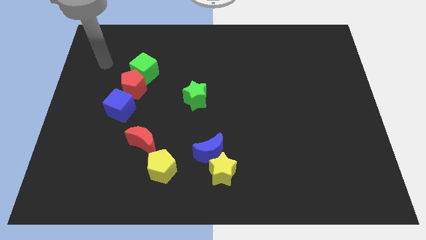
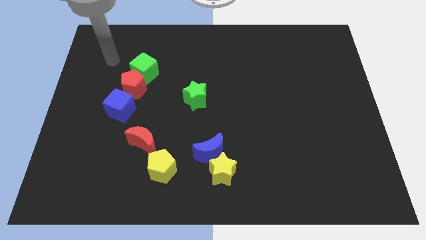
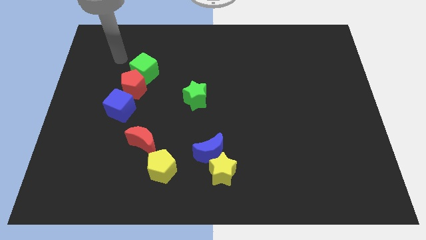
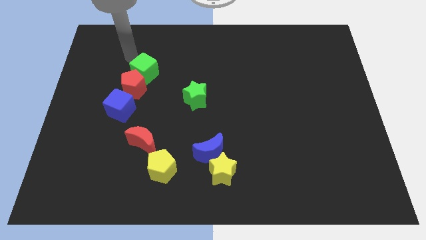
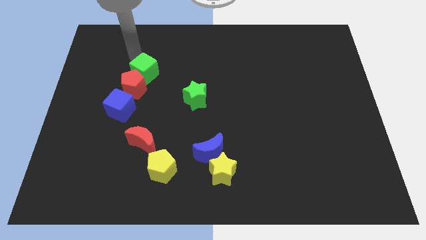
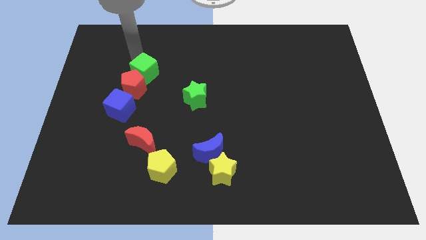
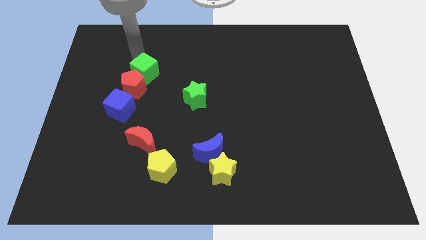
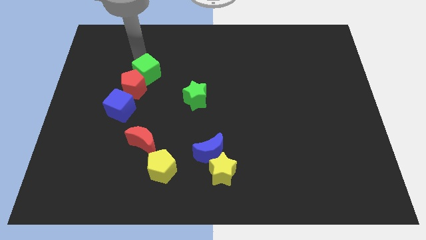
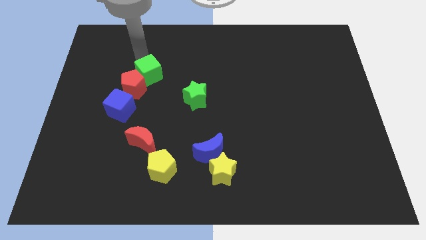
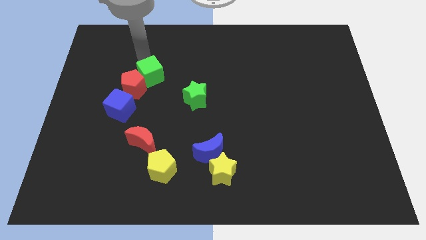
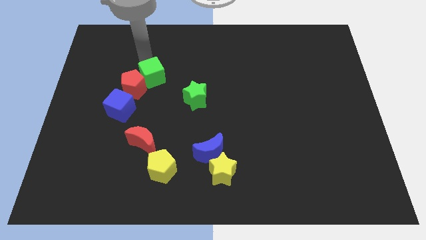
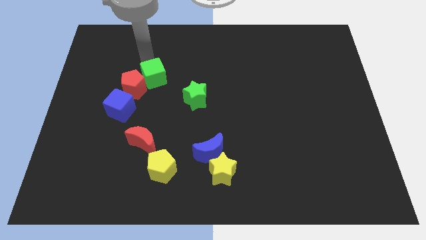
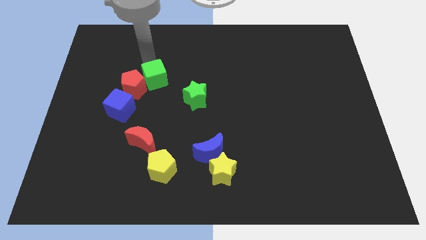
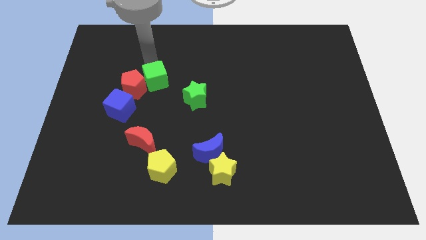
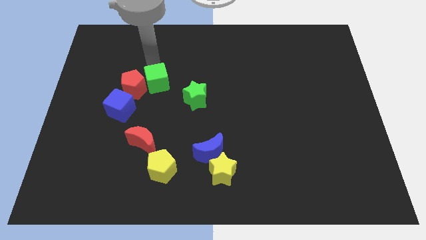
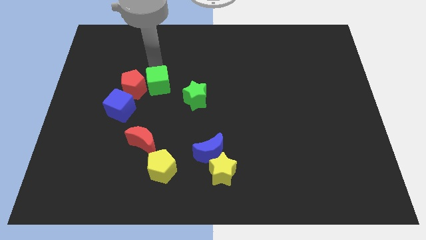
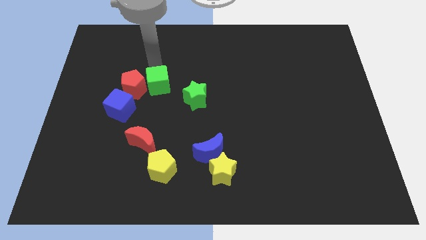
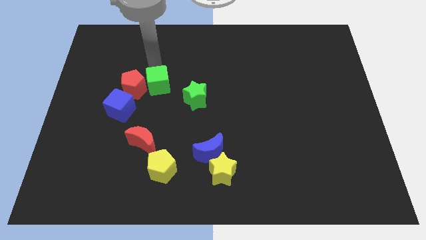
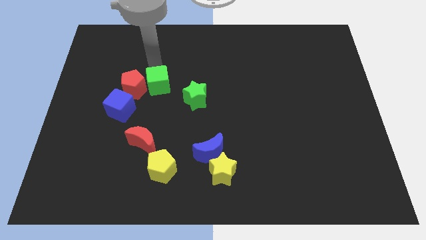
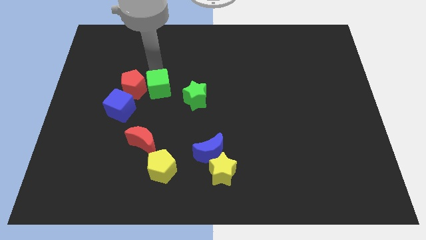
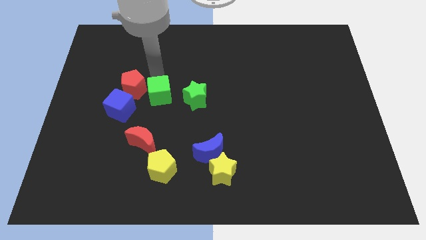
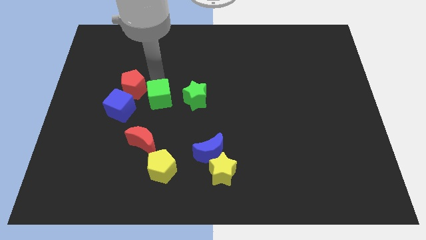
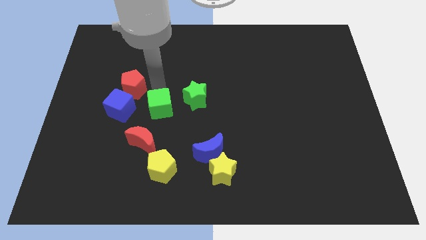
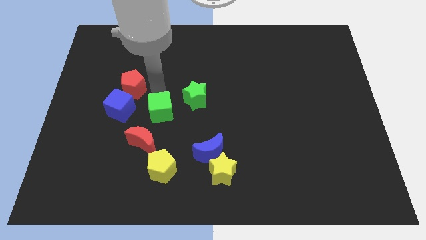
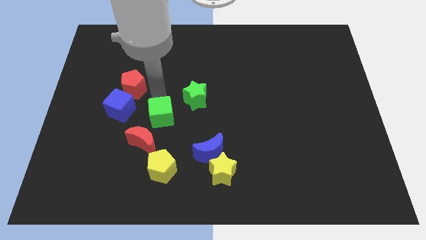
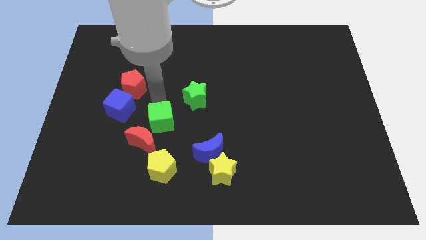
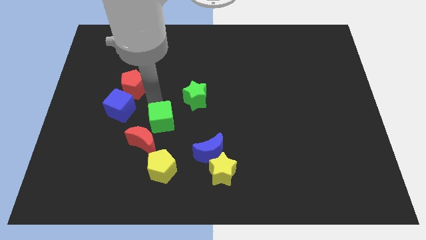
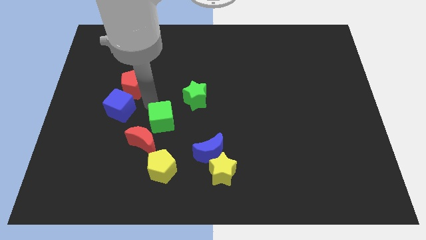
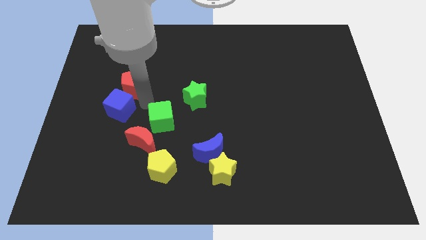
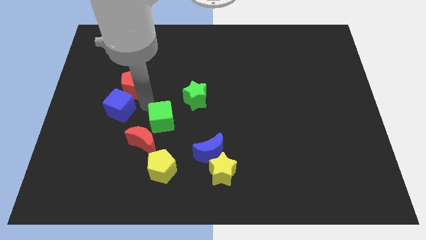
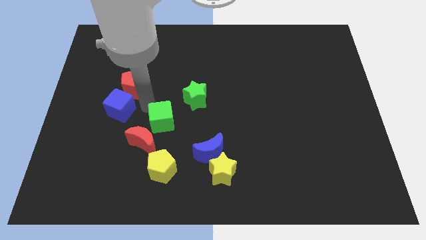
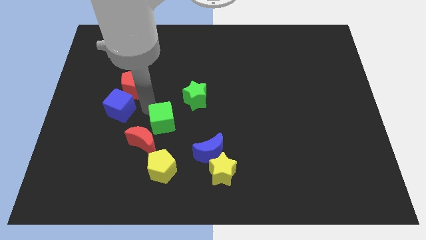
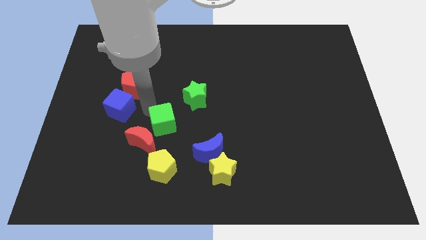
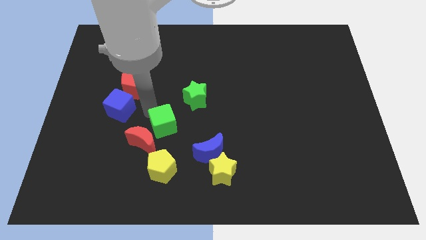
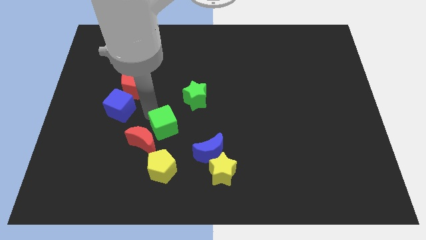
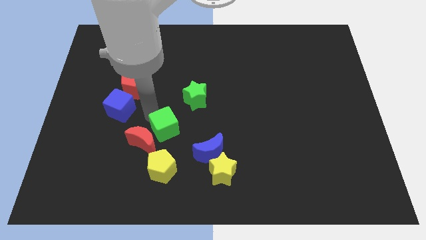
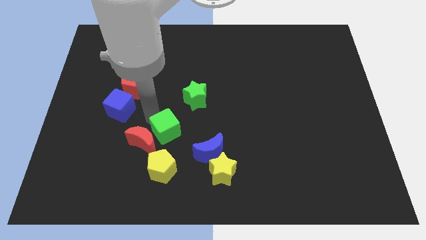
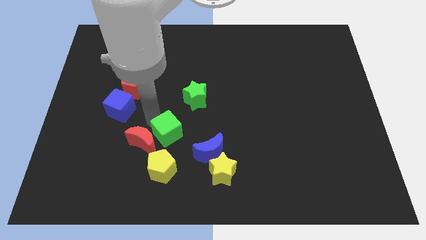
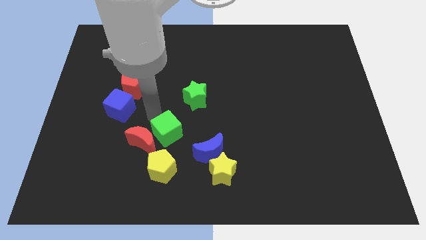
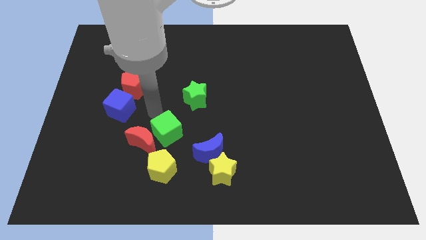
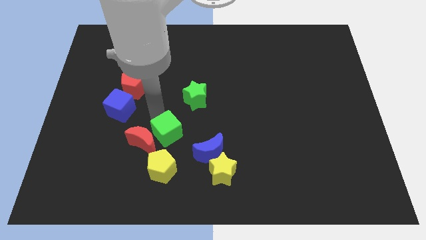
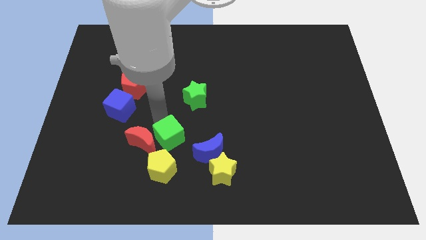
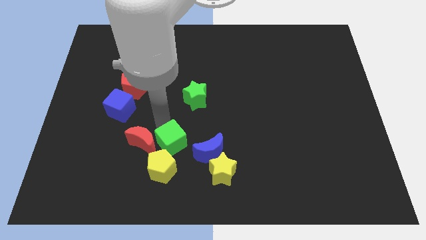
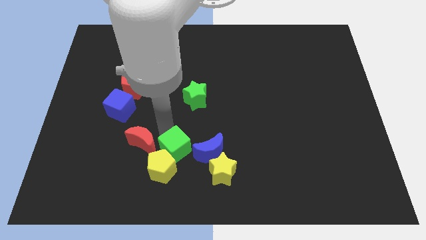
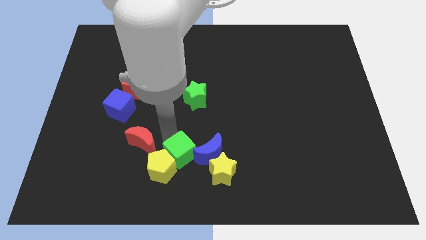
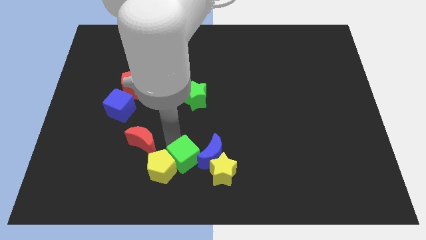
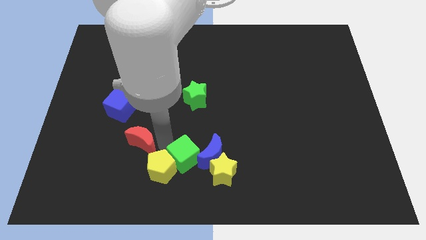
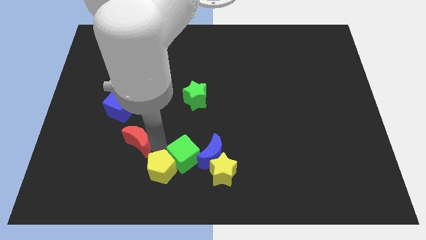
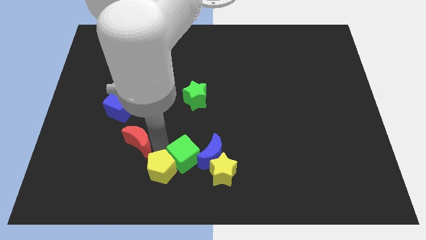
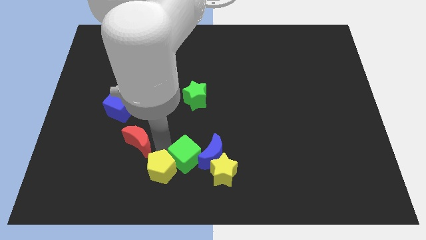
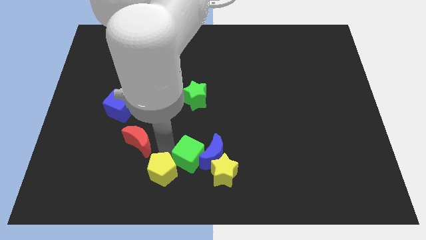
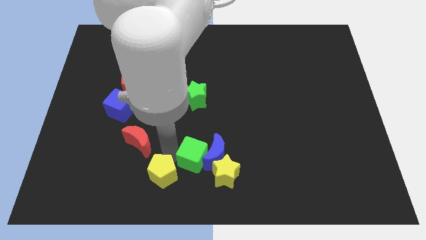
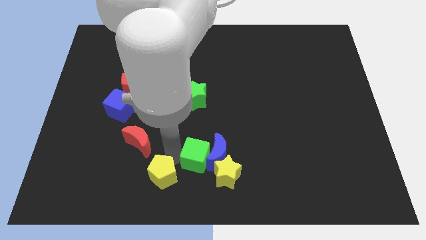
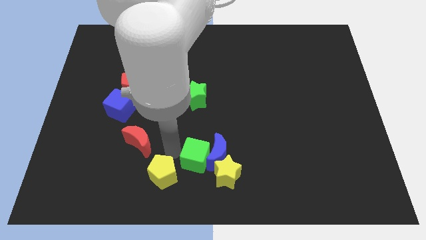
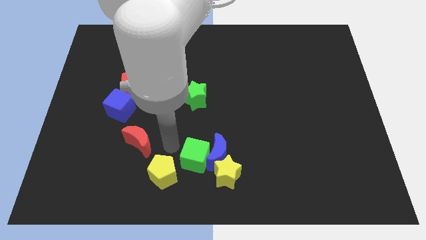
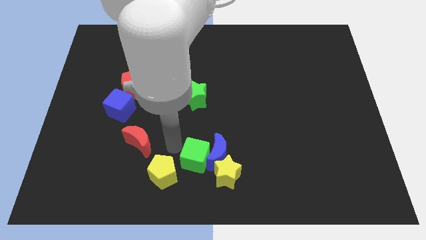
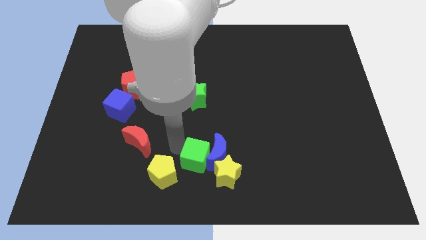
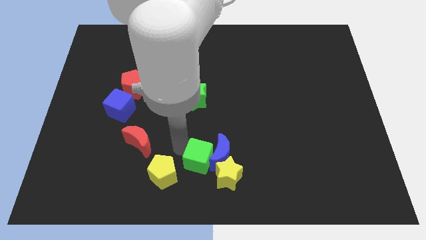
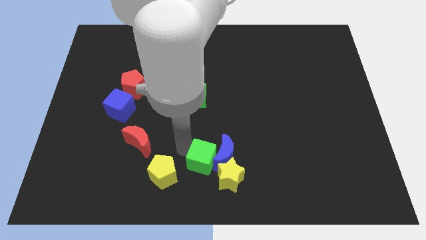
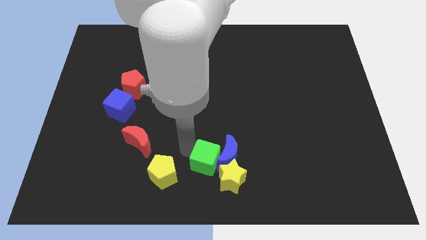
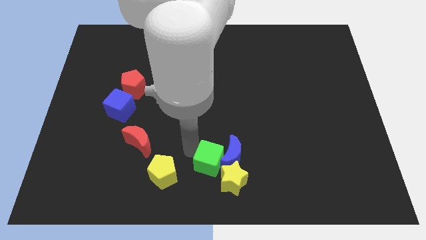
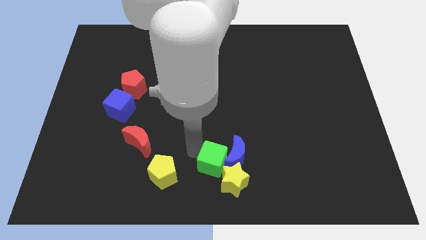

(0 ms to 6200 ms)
put the green cube towards the yellow star

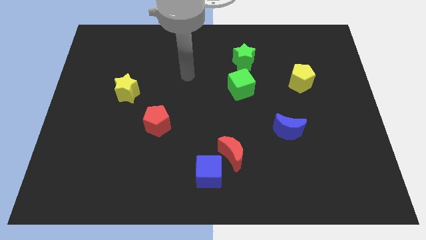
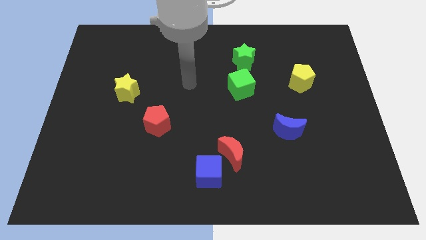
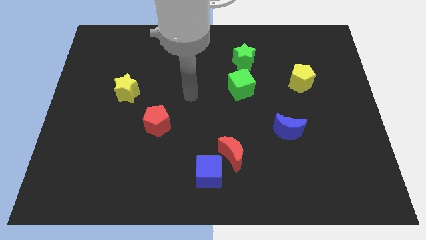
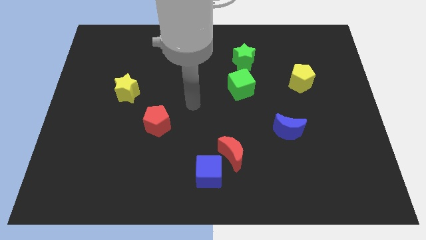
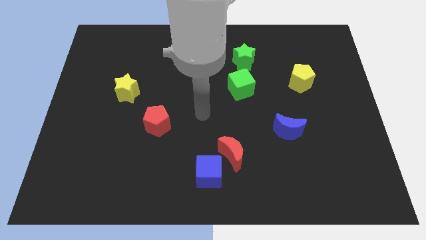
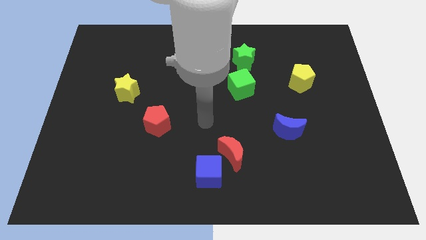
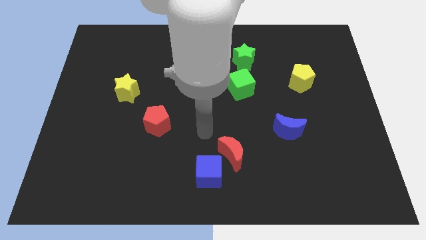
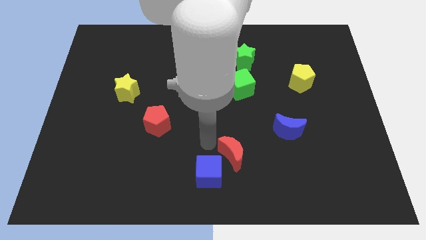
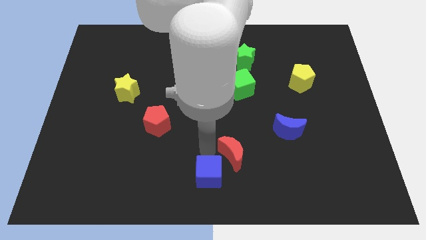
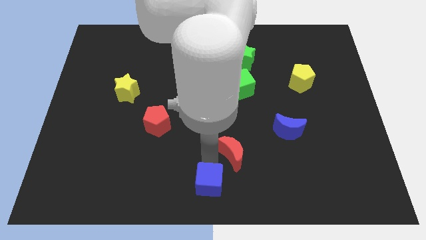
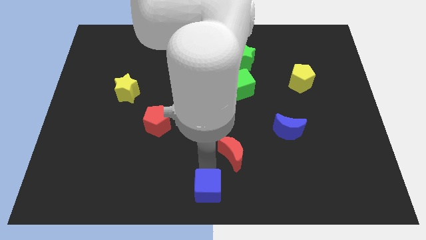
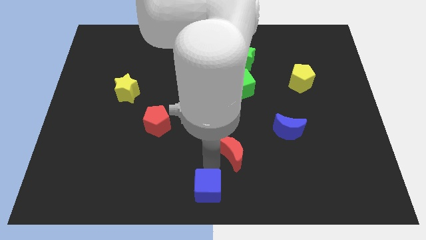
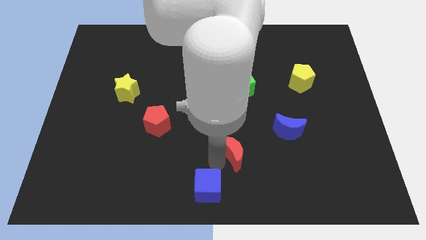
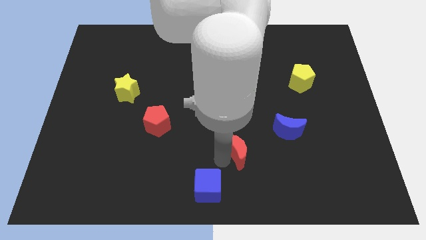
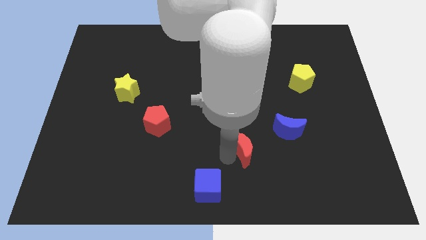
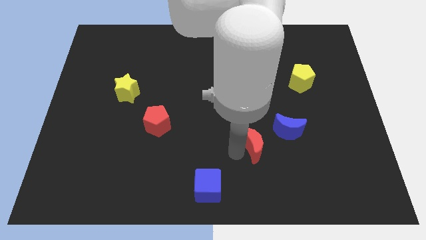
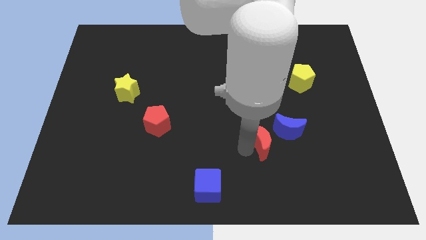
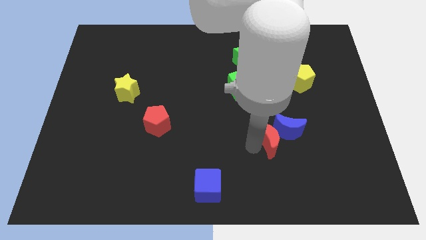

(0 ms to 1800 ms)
slide the red moon to the blue moon
